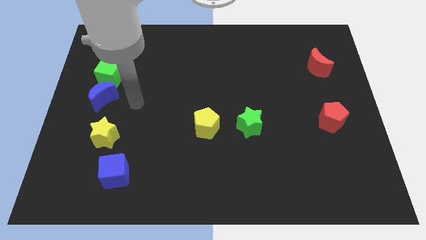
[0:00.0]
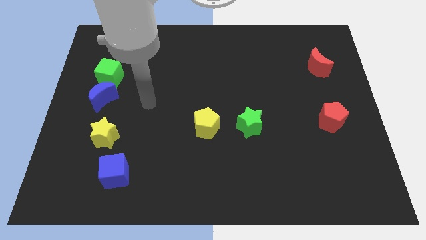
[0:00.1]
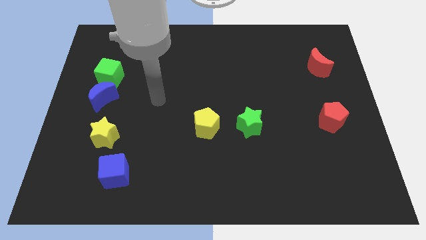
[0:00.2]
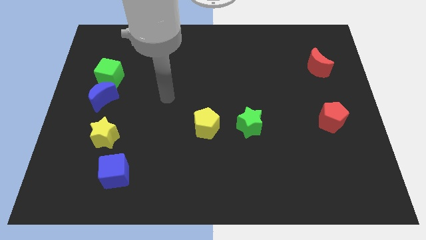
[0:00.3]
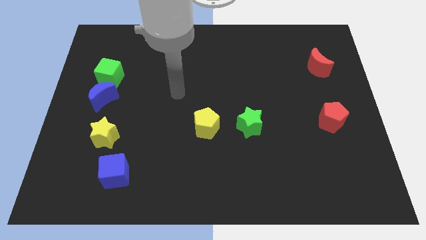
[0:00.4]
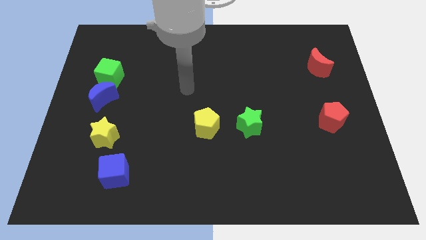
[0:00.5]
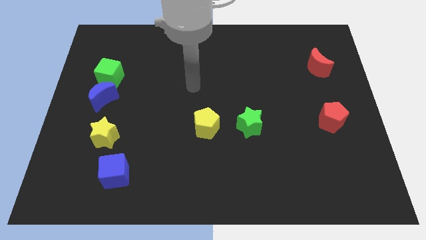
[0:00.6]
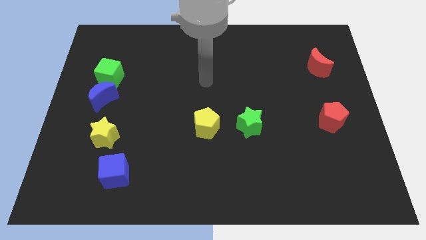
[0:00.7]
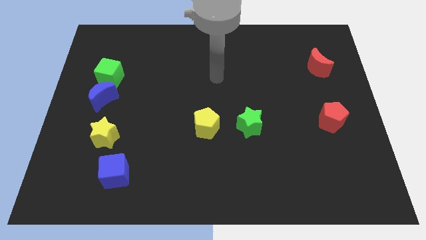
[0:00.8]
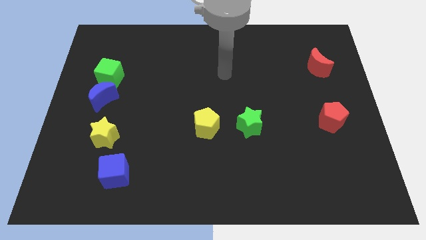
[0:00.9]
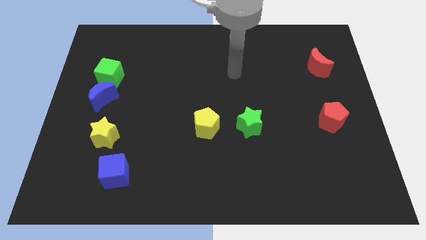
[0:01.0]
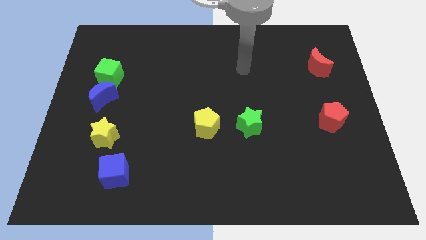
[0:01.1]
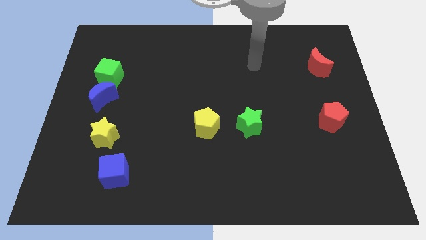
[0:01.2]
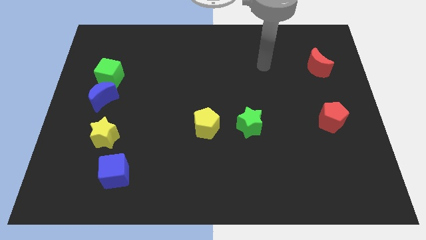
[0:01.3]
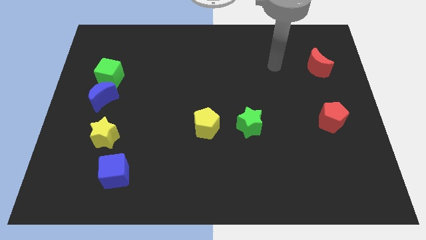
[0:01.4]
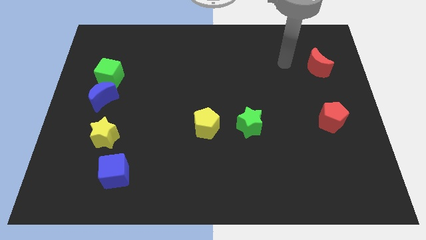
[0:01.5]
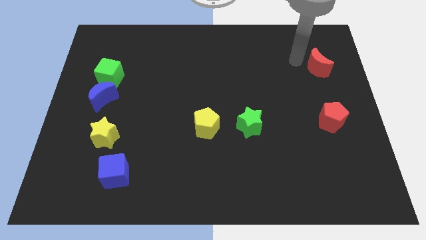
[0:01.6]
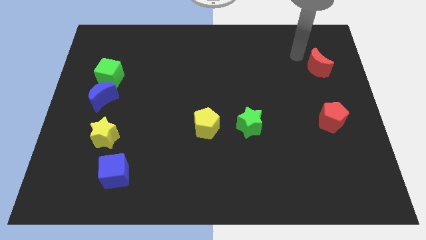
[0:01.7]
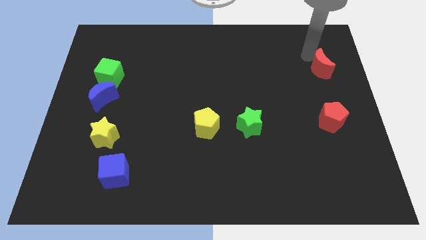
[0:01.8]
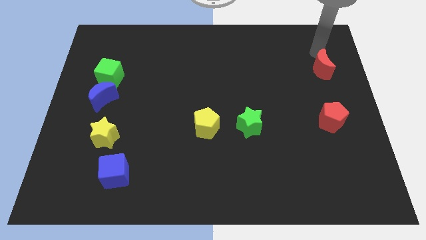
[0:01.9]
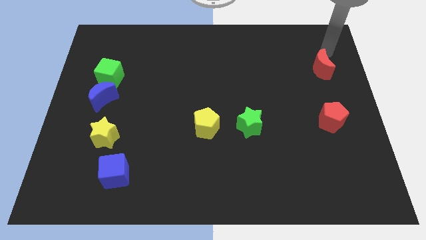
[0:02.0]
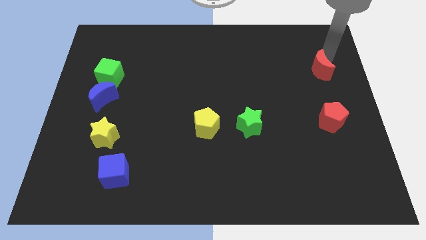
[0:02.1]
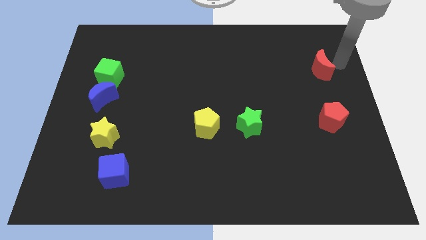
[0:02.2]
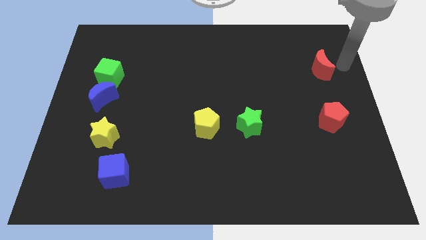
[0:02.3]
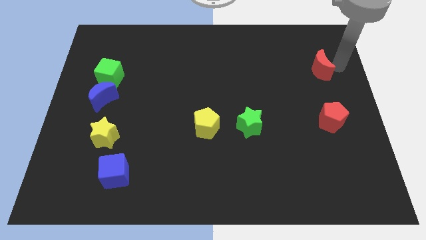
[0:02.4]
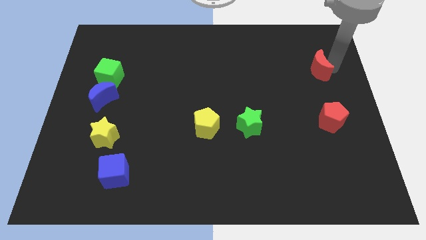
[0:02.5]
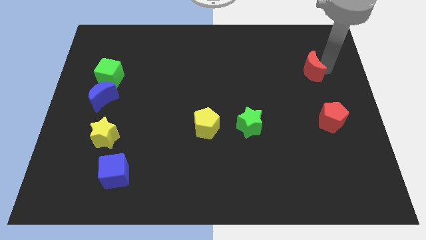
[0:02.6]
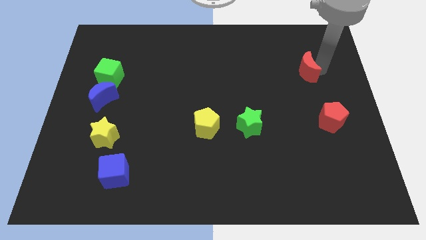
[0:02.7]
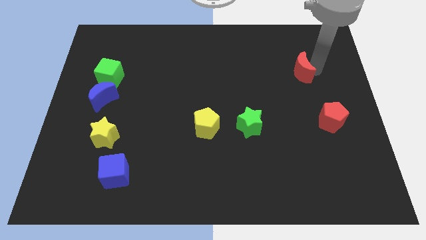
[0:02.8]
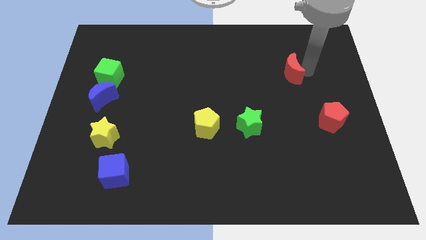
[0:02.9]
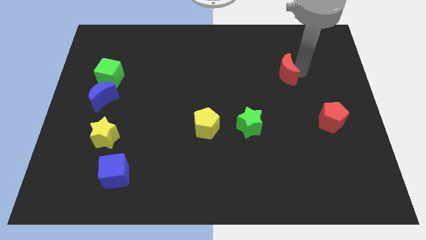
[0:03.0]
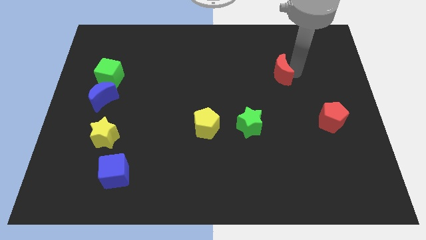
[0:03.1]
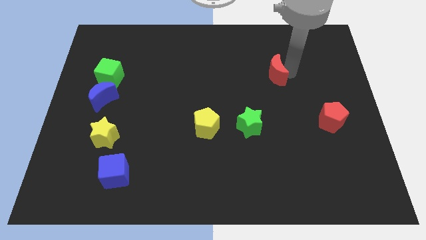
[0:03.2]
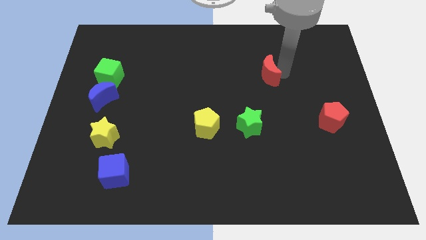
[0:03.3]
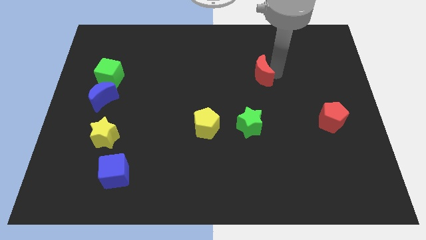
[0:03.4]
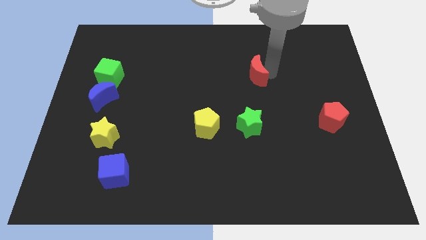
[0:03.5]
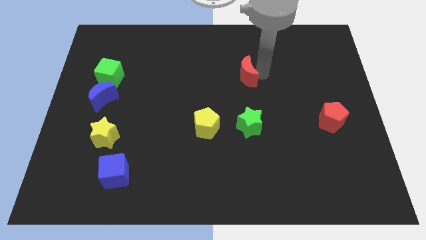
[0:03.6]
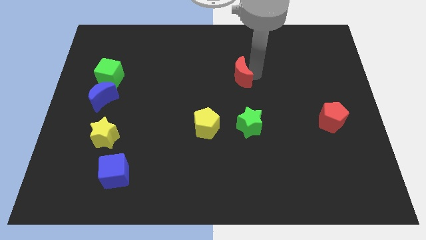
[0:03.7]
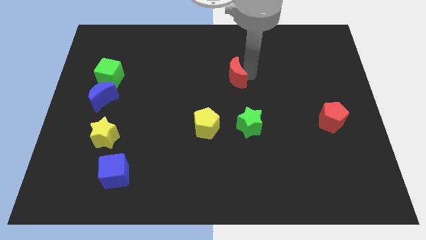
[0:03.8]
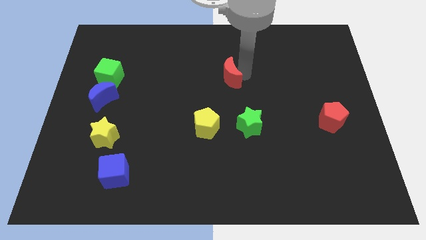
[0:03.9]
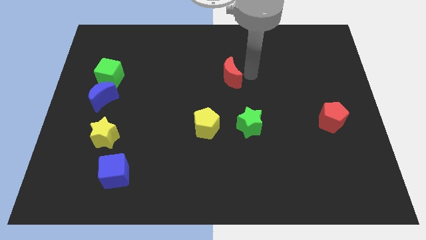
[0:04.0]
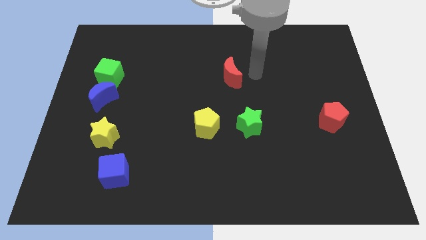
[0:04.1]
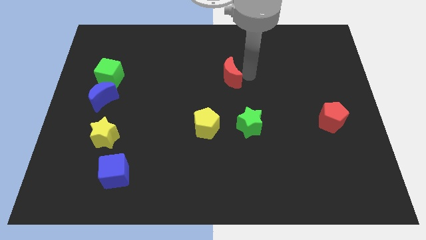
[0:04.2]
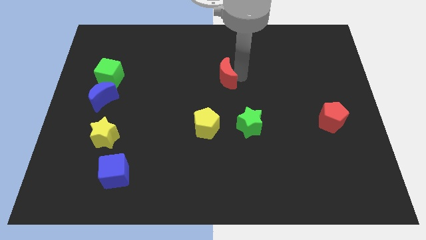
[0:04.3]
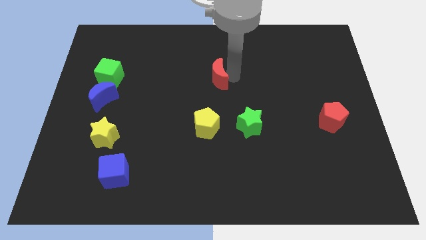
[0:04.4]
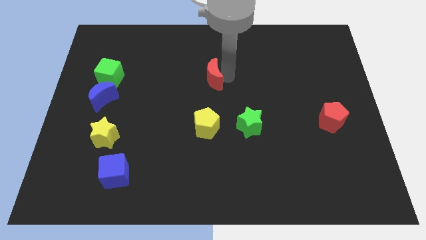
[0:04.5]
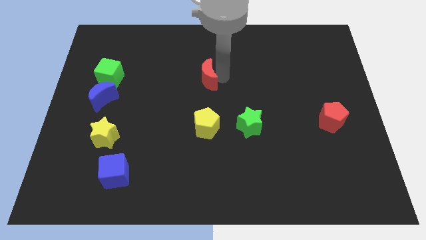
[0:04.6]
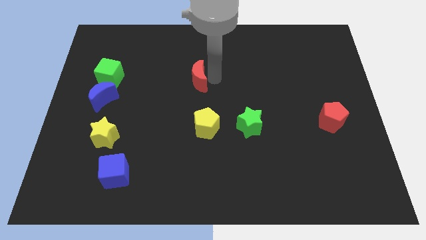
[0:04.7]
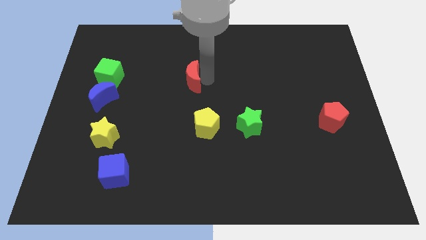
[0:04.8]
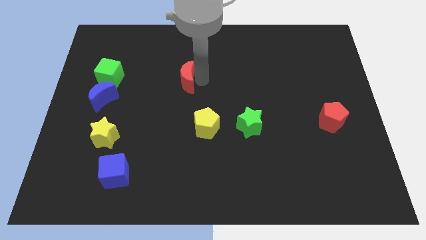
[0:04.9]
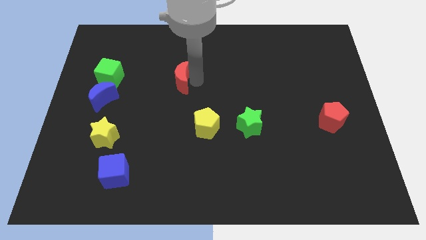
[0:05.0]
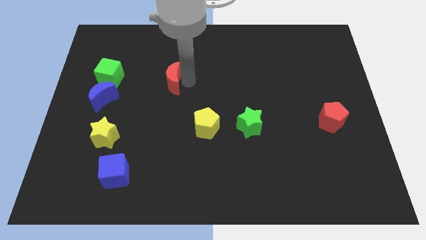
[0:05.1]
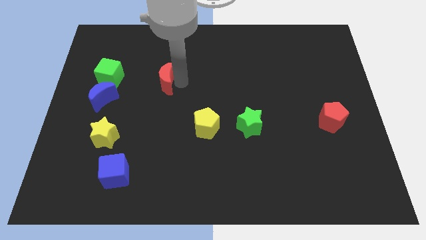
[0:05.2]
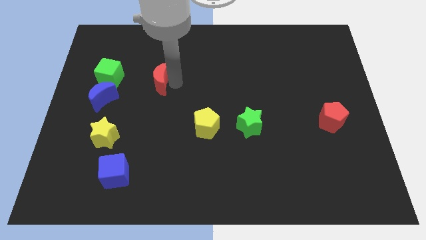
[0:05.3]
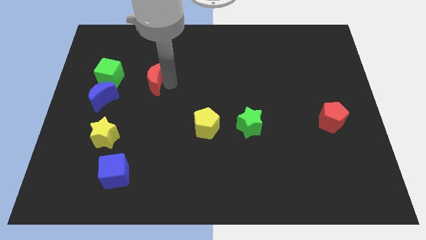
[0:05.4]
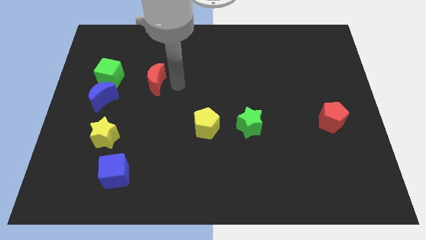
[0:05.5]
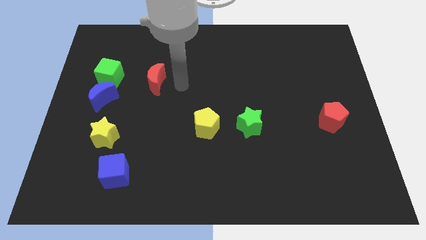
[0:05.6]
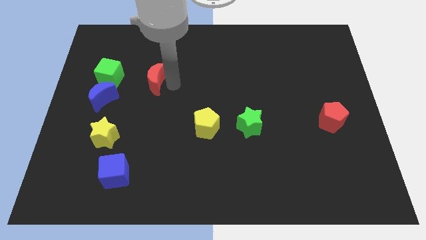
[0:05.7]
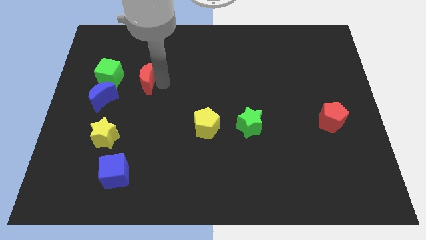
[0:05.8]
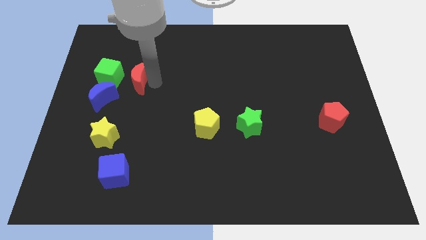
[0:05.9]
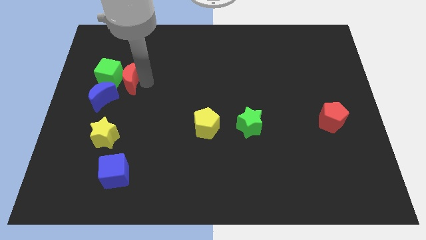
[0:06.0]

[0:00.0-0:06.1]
move the red moon next to the green cube
